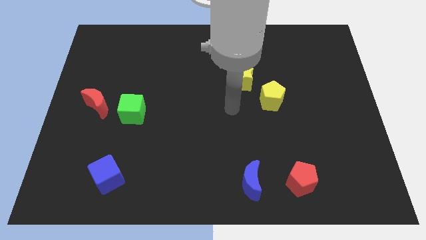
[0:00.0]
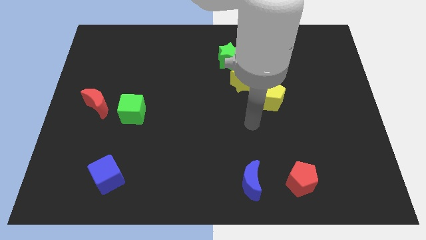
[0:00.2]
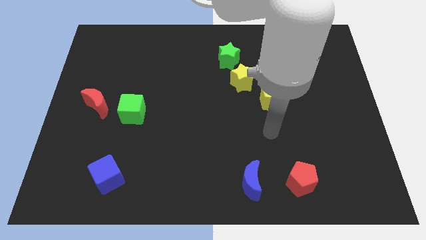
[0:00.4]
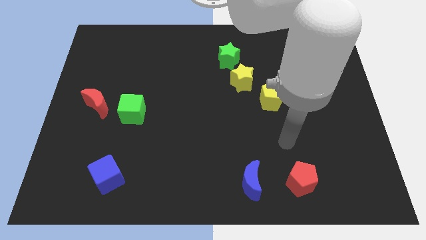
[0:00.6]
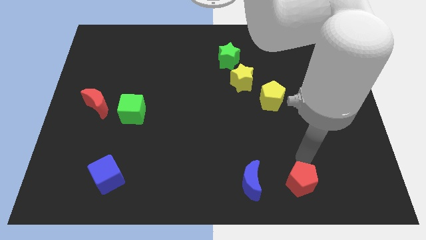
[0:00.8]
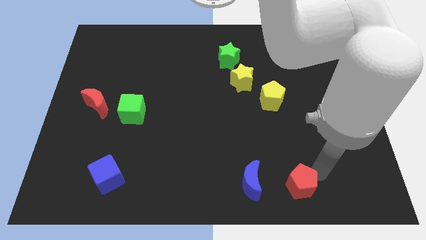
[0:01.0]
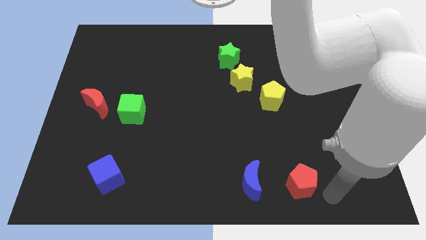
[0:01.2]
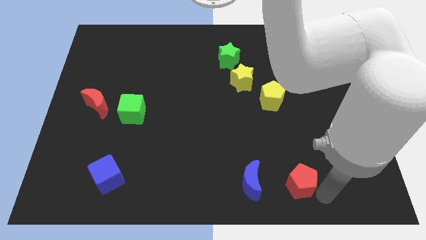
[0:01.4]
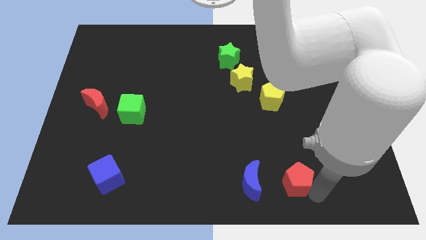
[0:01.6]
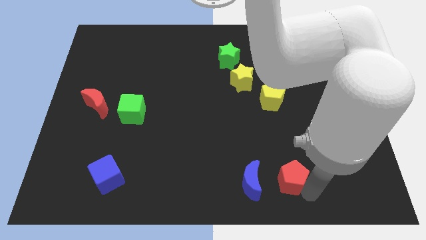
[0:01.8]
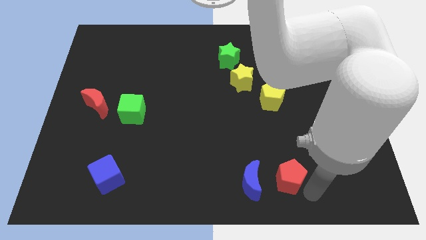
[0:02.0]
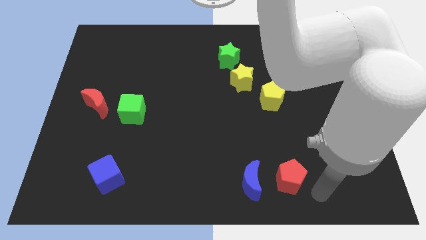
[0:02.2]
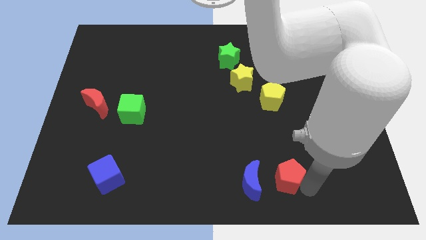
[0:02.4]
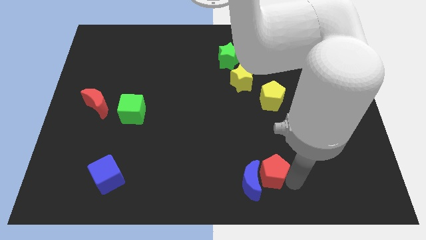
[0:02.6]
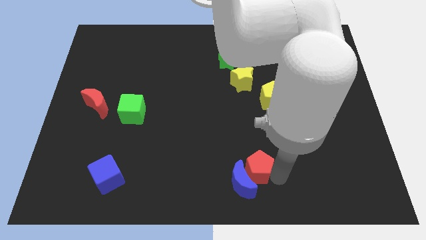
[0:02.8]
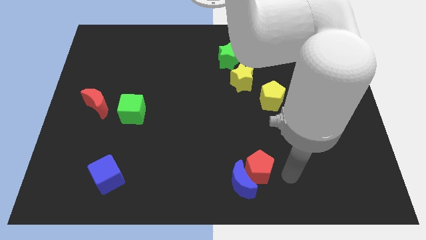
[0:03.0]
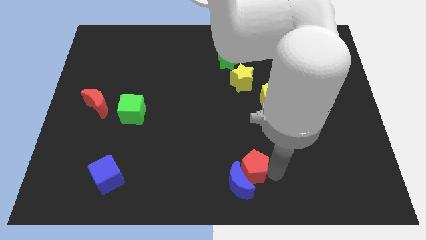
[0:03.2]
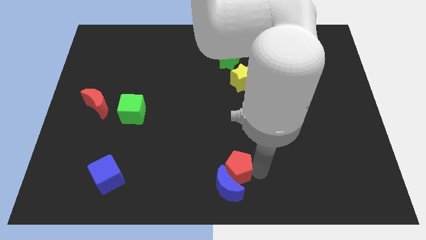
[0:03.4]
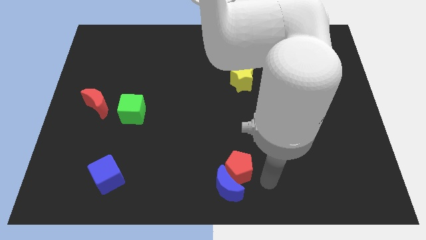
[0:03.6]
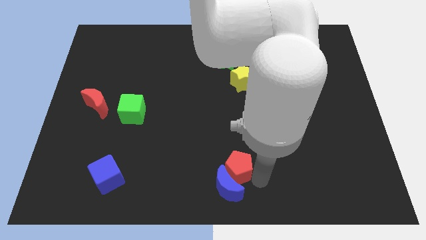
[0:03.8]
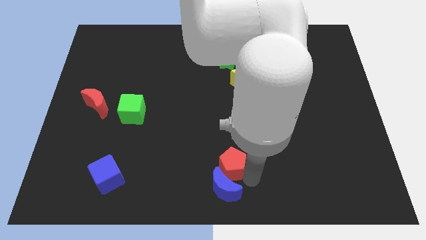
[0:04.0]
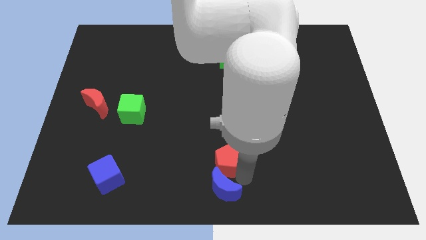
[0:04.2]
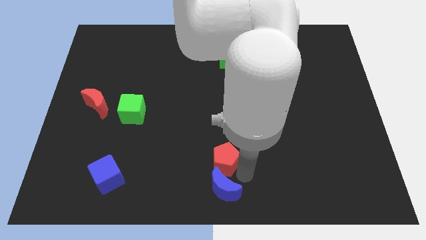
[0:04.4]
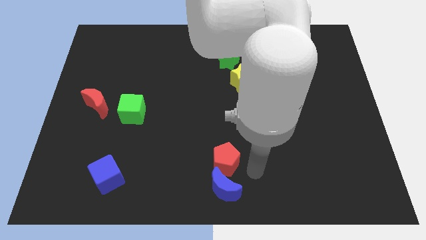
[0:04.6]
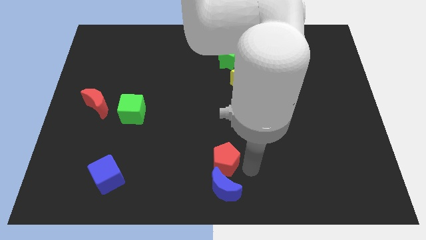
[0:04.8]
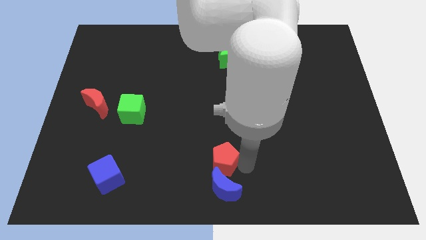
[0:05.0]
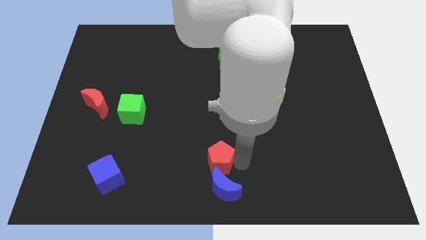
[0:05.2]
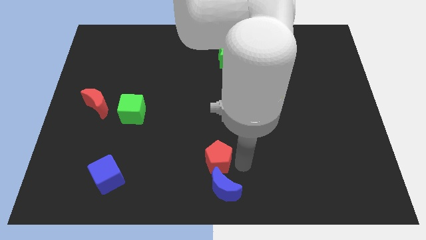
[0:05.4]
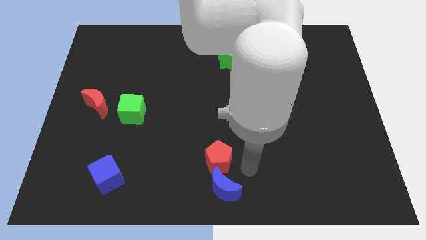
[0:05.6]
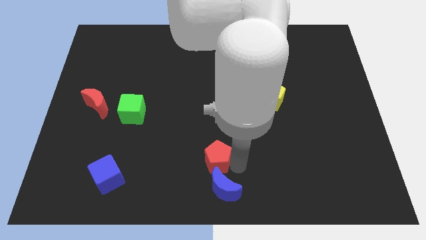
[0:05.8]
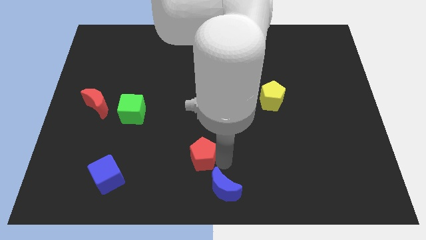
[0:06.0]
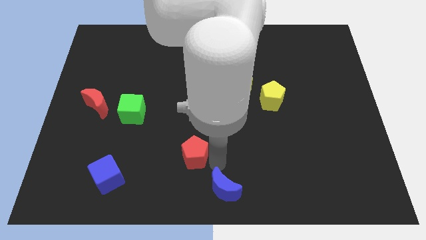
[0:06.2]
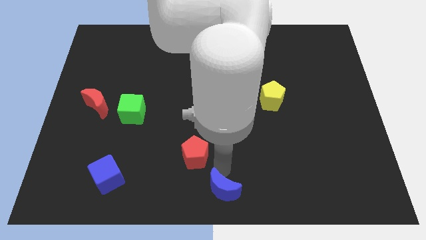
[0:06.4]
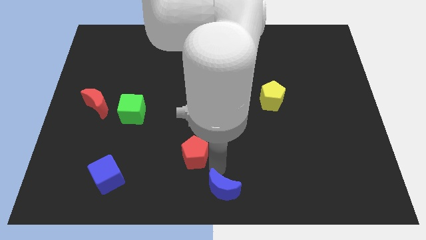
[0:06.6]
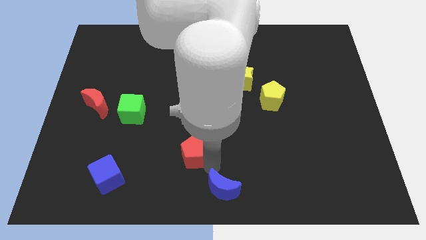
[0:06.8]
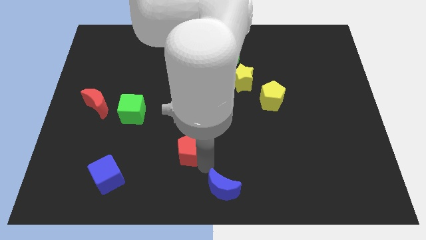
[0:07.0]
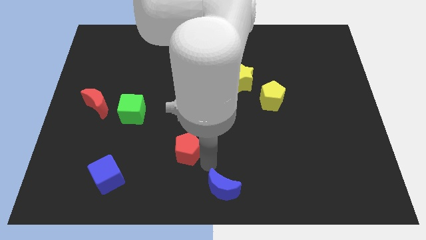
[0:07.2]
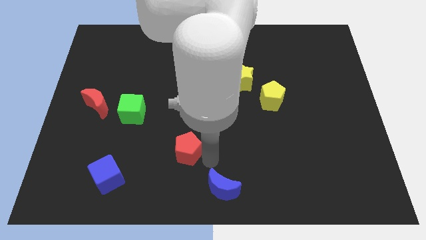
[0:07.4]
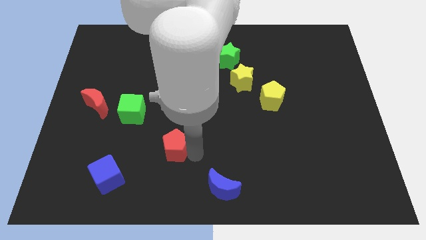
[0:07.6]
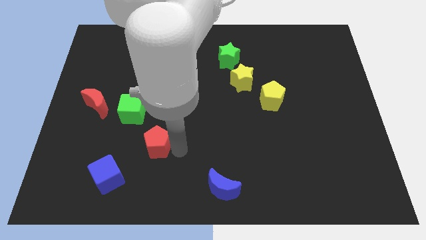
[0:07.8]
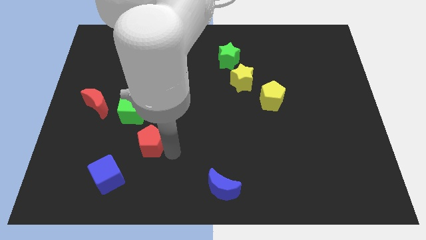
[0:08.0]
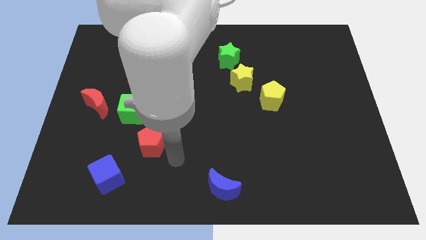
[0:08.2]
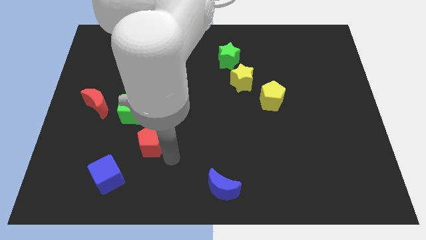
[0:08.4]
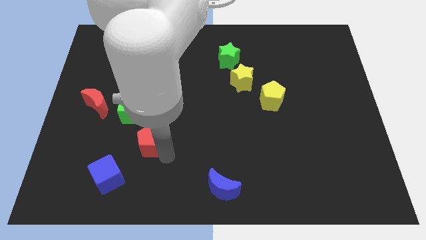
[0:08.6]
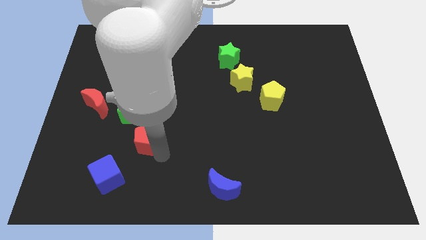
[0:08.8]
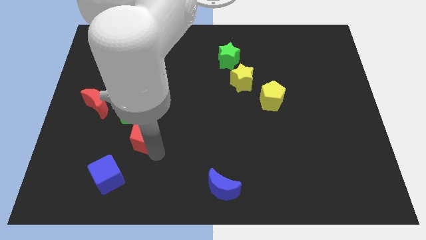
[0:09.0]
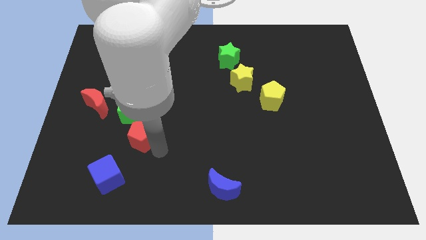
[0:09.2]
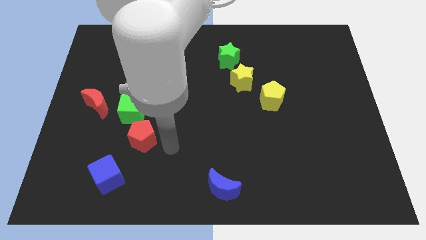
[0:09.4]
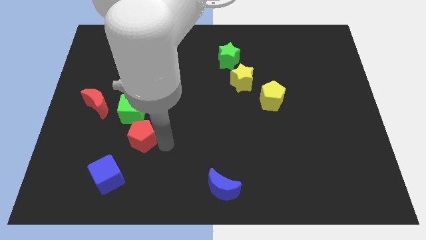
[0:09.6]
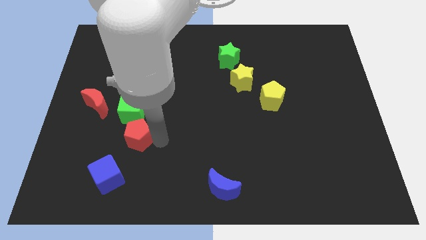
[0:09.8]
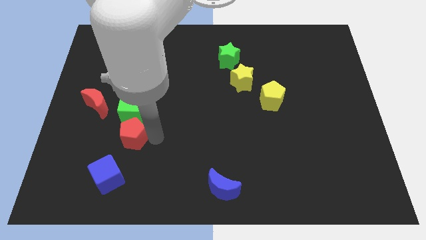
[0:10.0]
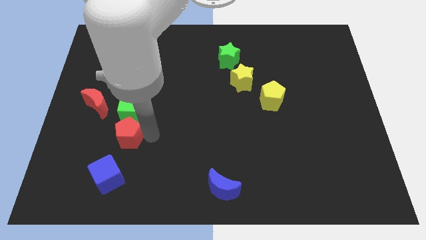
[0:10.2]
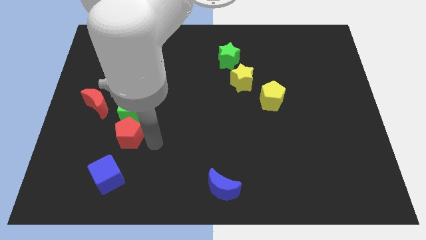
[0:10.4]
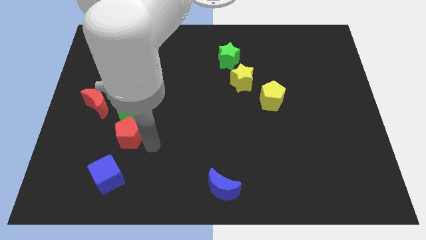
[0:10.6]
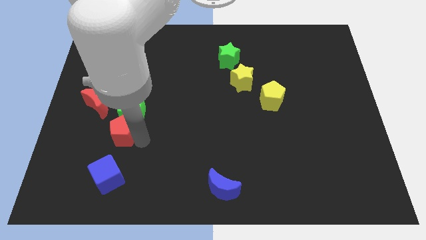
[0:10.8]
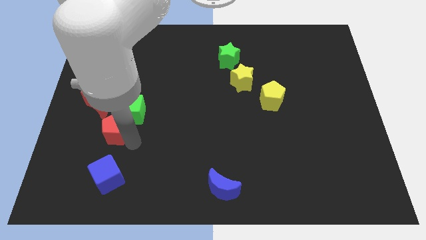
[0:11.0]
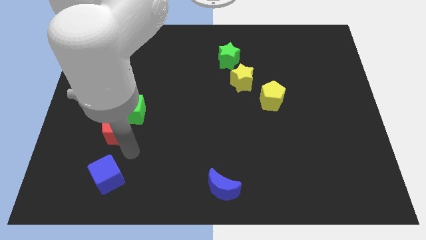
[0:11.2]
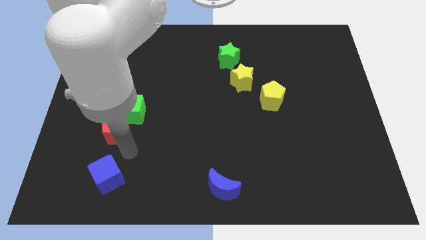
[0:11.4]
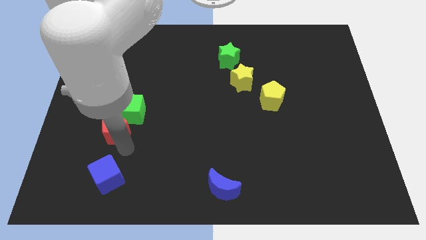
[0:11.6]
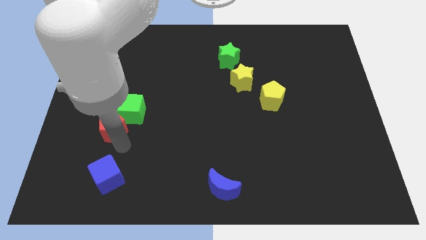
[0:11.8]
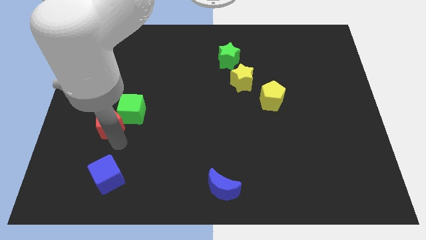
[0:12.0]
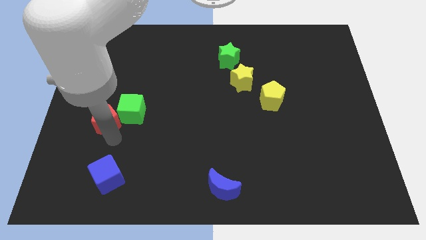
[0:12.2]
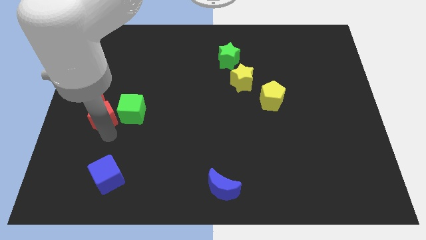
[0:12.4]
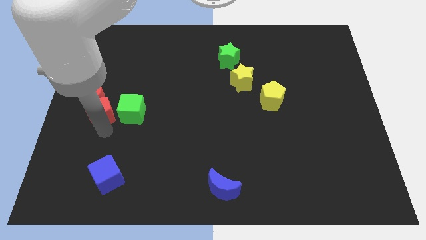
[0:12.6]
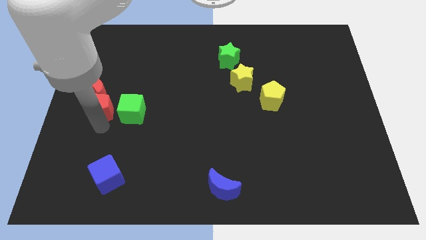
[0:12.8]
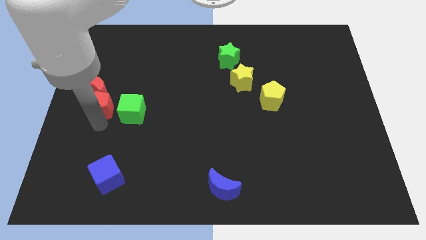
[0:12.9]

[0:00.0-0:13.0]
put the red pentagon to the red moon

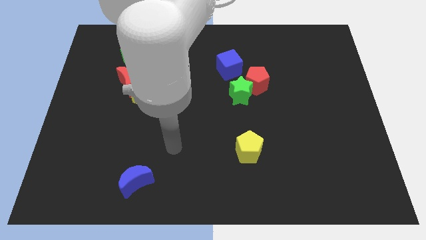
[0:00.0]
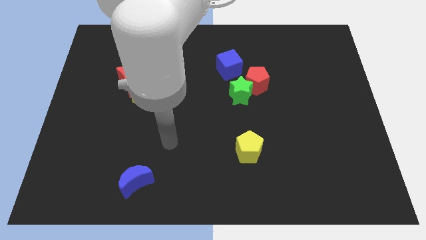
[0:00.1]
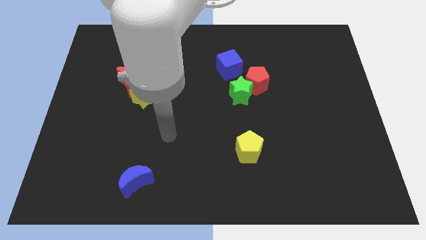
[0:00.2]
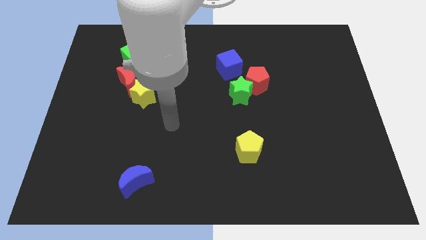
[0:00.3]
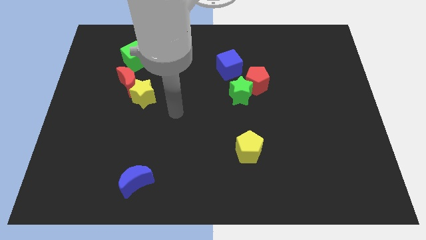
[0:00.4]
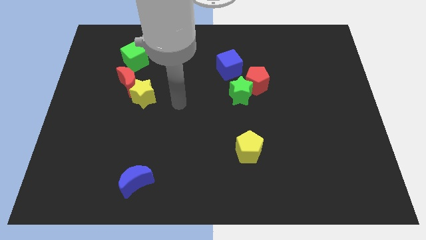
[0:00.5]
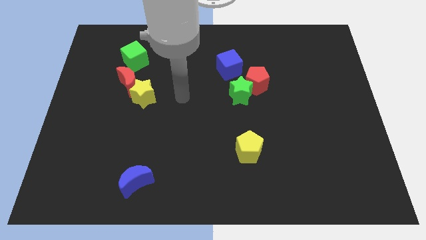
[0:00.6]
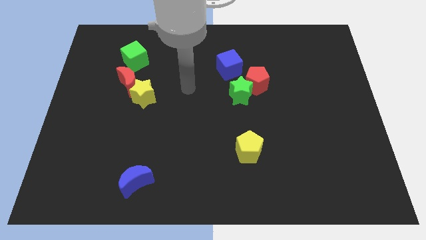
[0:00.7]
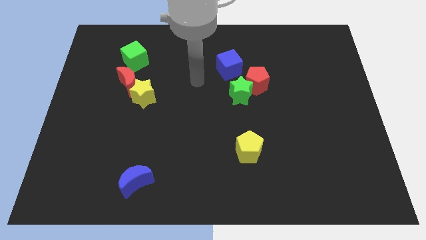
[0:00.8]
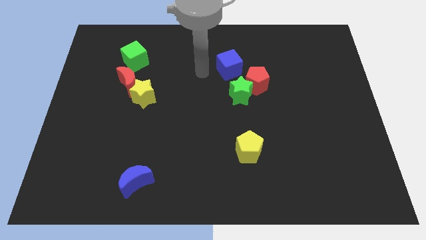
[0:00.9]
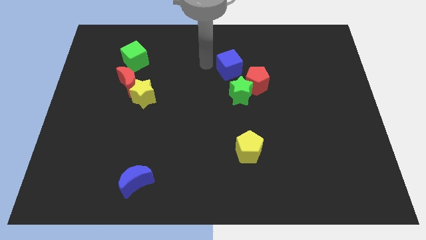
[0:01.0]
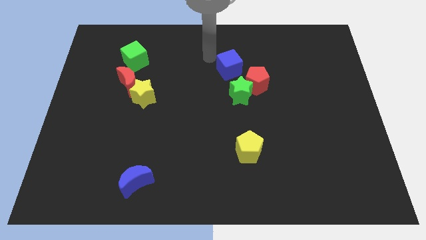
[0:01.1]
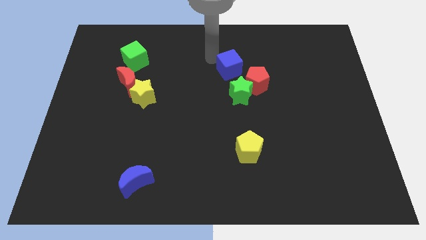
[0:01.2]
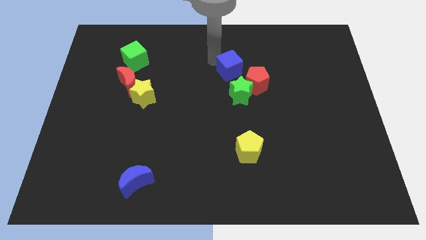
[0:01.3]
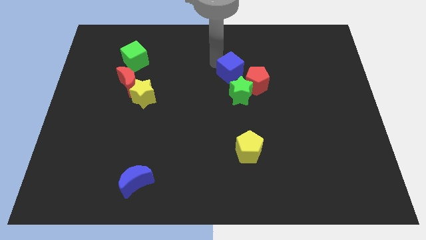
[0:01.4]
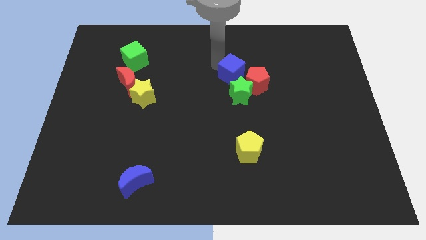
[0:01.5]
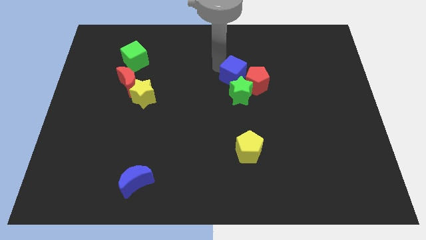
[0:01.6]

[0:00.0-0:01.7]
slide the blue cube to the red pentagon
